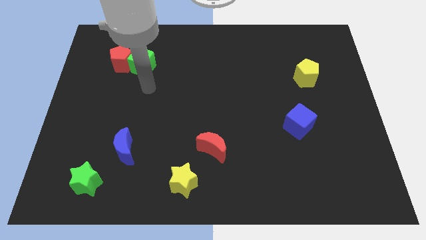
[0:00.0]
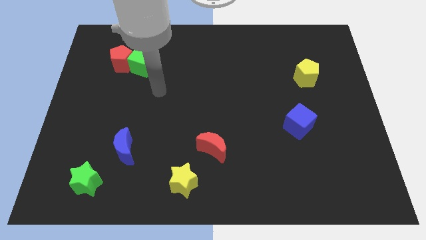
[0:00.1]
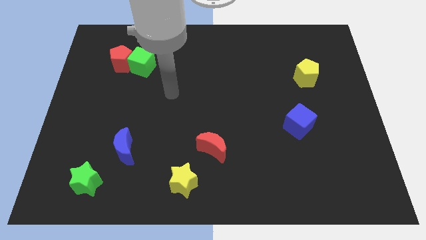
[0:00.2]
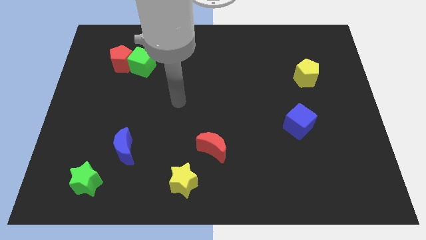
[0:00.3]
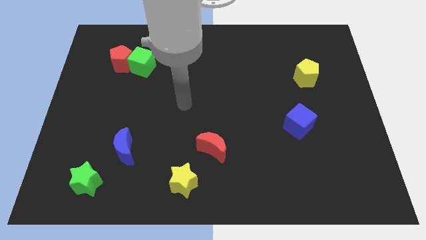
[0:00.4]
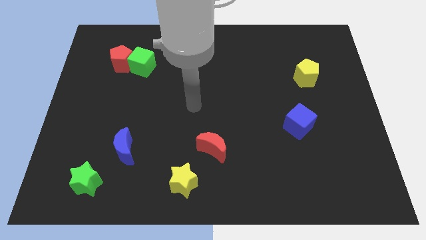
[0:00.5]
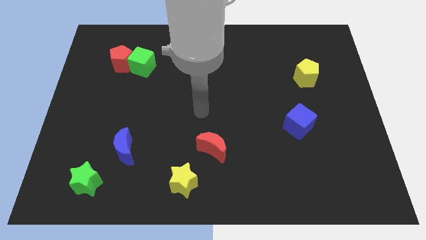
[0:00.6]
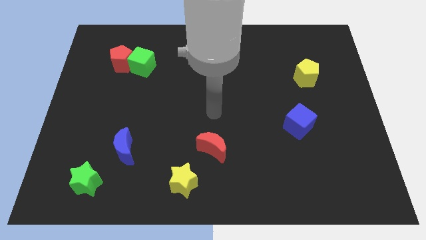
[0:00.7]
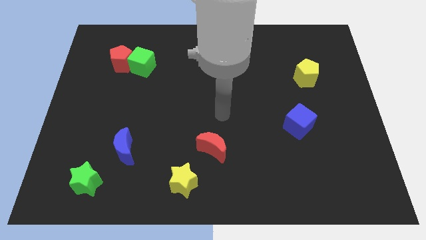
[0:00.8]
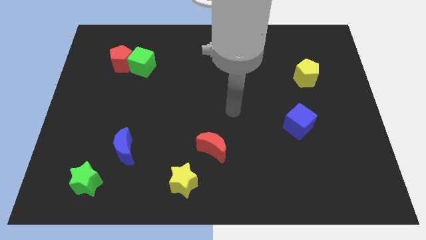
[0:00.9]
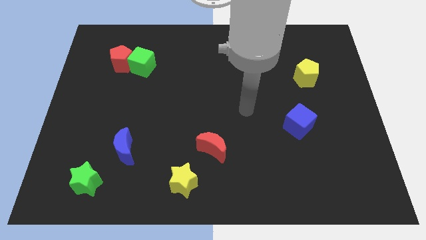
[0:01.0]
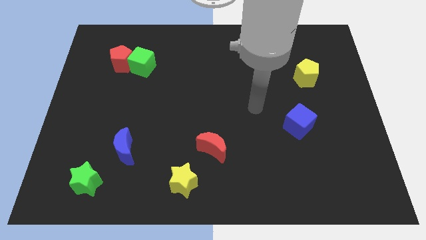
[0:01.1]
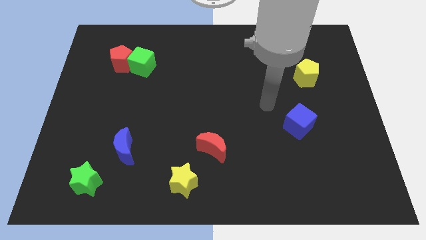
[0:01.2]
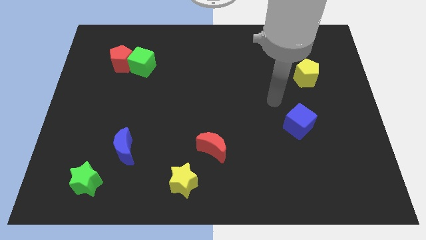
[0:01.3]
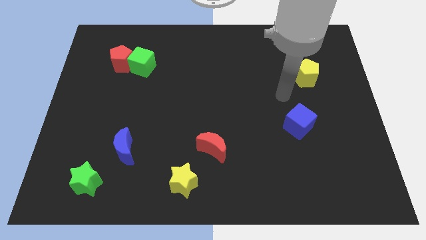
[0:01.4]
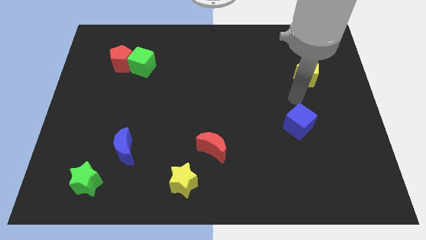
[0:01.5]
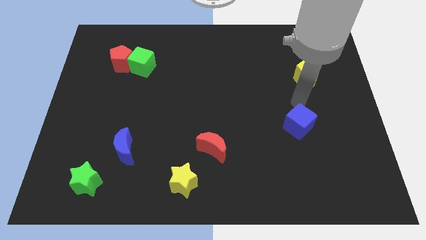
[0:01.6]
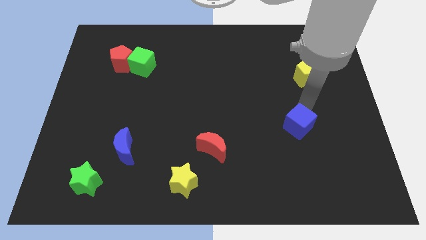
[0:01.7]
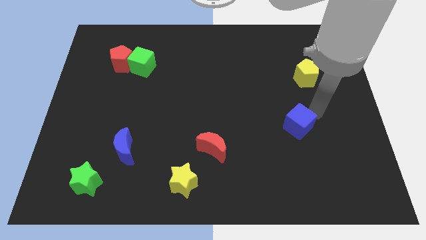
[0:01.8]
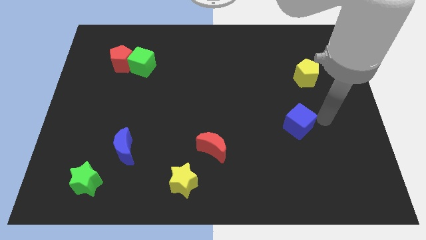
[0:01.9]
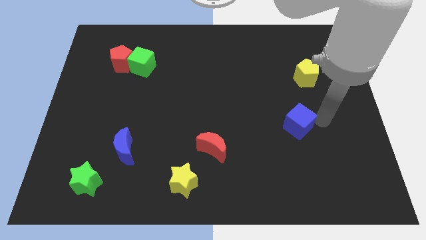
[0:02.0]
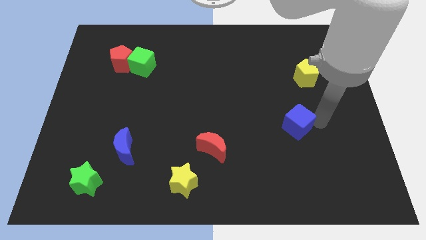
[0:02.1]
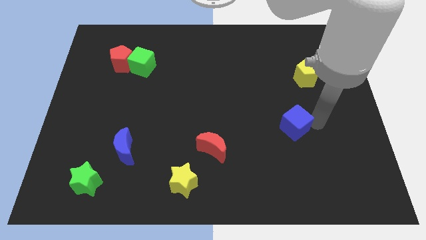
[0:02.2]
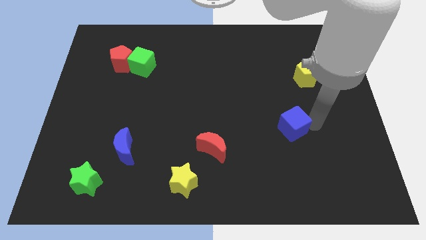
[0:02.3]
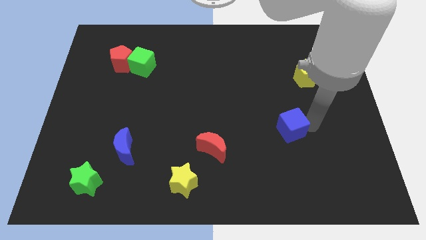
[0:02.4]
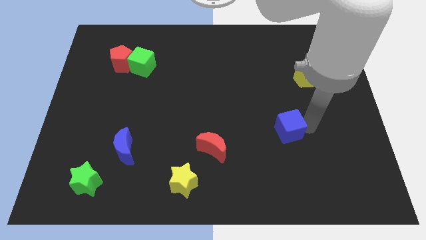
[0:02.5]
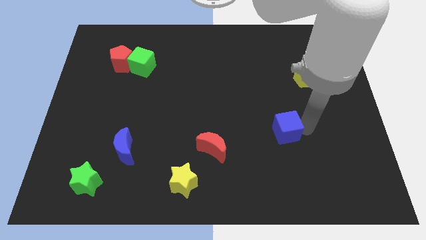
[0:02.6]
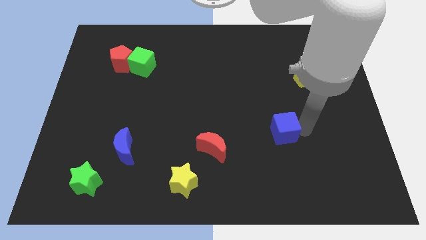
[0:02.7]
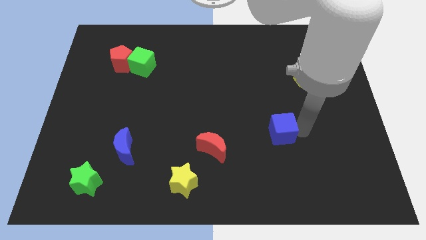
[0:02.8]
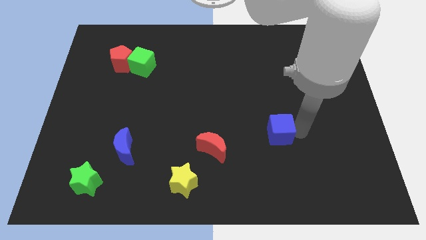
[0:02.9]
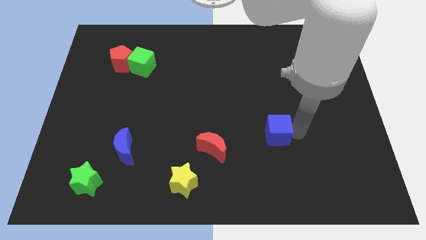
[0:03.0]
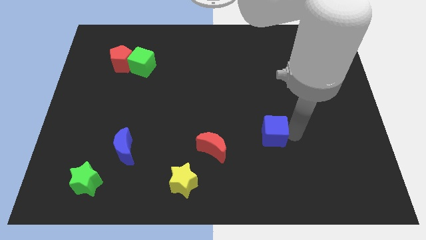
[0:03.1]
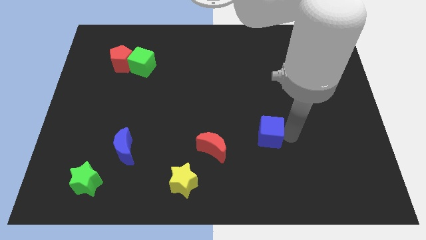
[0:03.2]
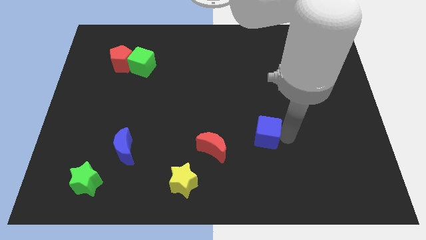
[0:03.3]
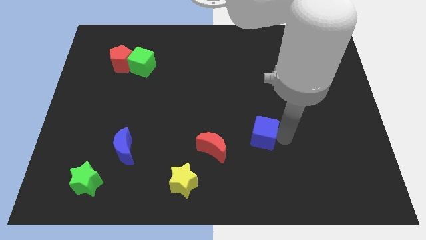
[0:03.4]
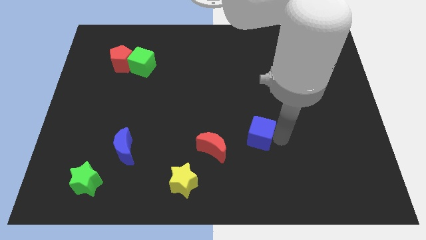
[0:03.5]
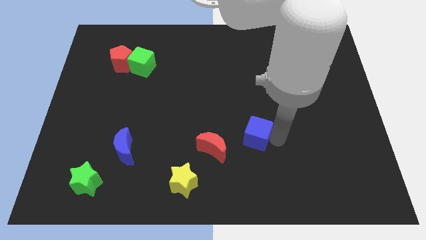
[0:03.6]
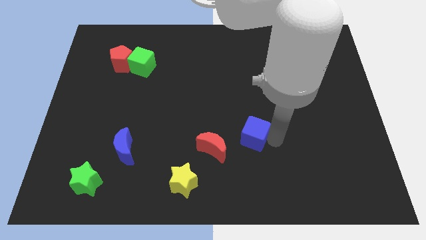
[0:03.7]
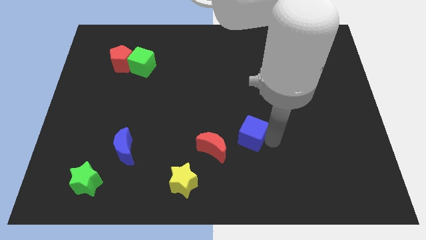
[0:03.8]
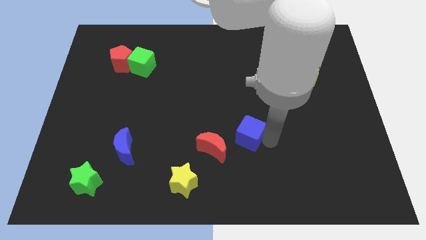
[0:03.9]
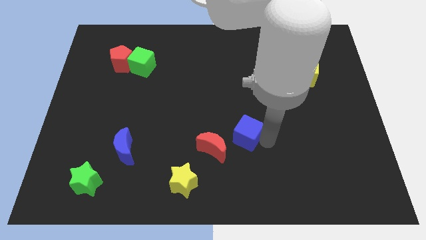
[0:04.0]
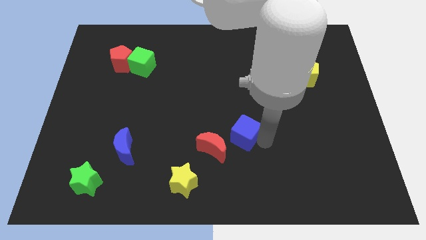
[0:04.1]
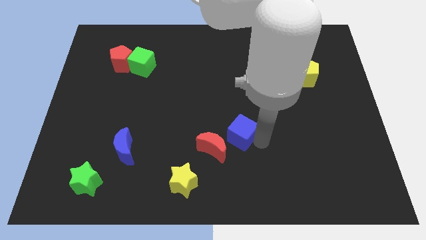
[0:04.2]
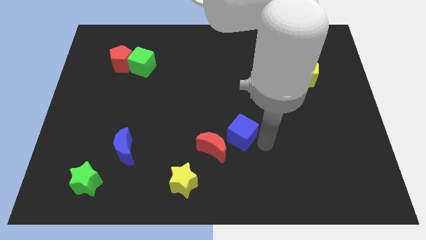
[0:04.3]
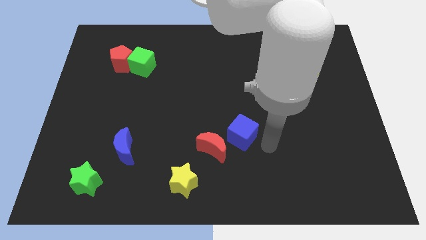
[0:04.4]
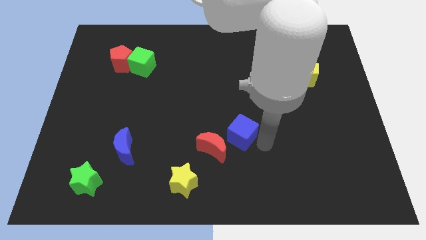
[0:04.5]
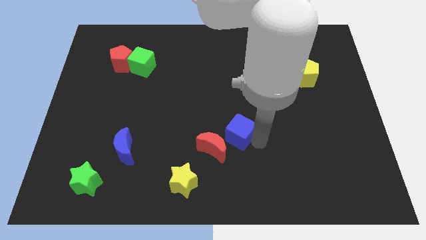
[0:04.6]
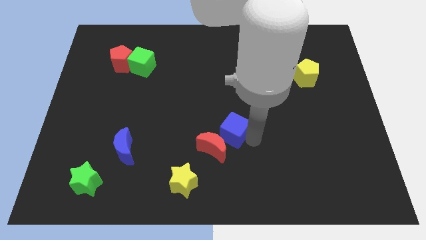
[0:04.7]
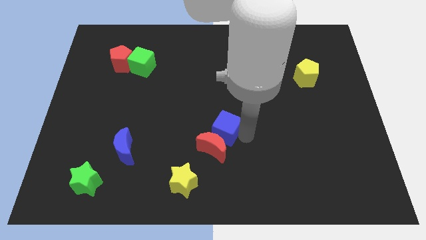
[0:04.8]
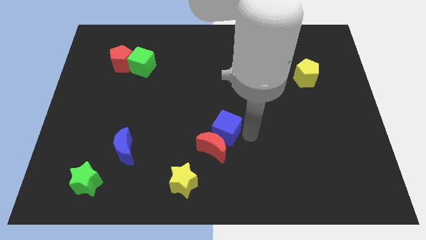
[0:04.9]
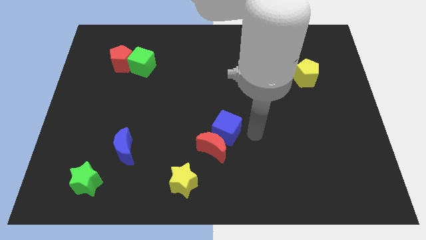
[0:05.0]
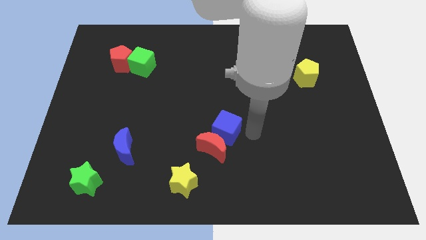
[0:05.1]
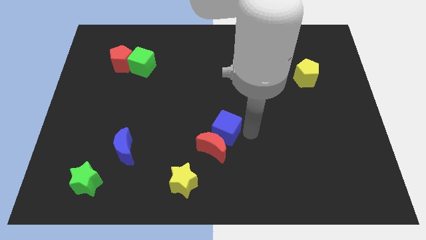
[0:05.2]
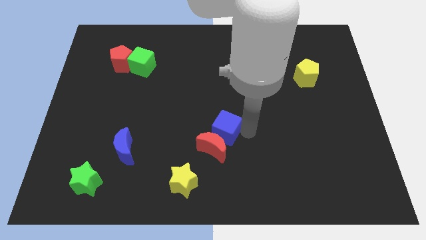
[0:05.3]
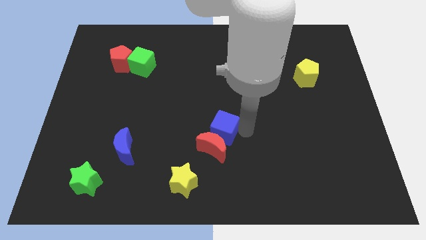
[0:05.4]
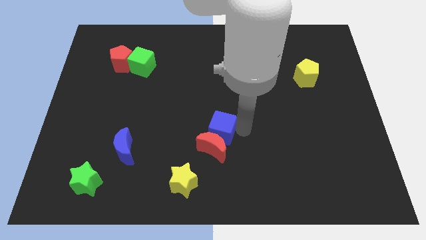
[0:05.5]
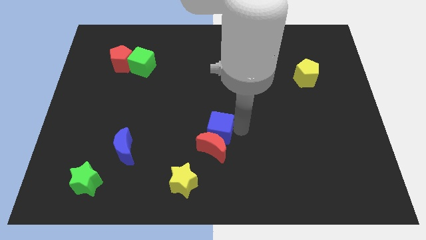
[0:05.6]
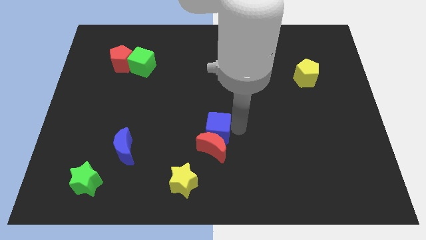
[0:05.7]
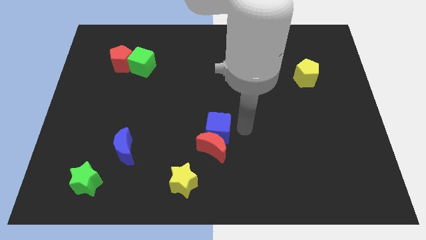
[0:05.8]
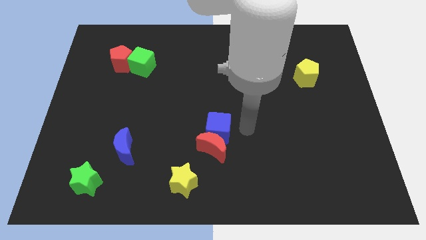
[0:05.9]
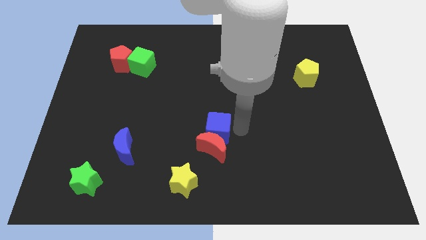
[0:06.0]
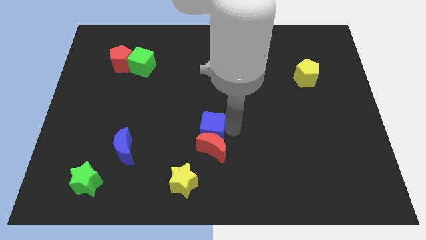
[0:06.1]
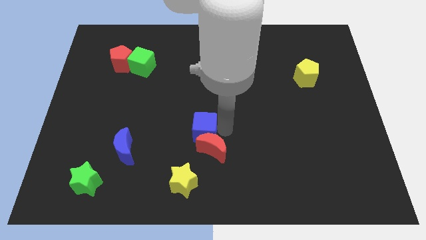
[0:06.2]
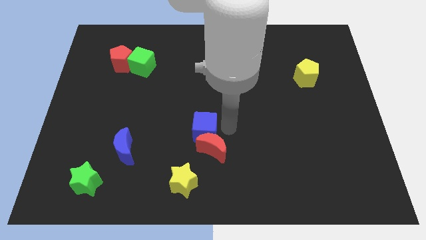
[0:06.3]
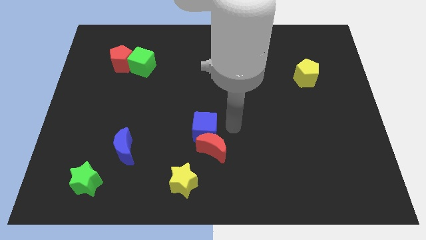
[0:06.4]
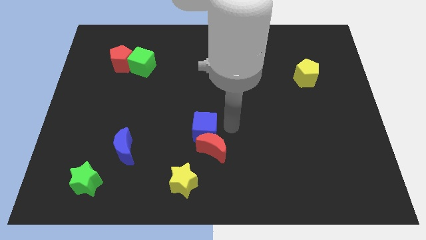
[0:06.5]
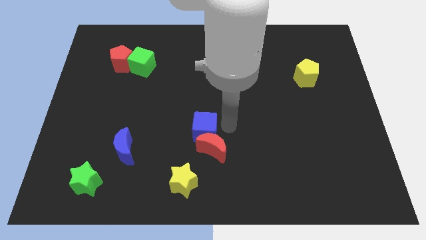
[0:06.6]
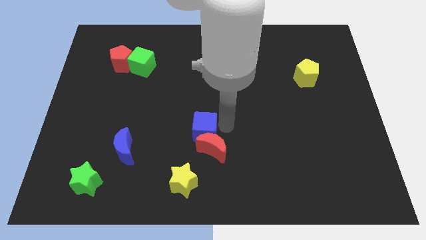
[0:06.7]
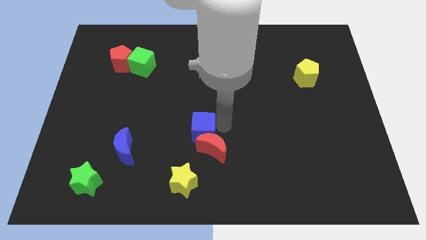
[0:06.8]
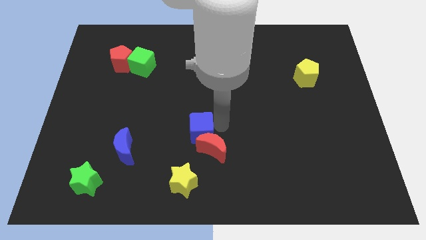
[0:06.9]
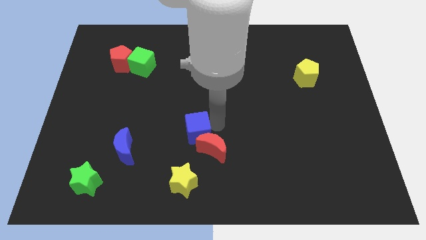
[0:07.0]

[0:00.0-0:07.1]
slide the blue cube left of the red moon
